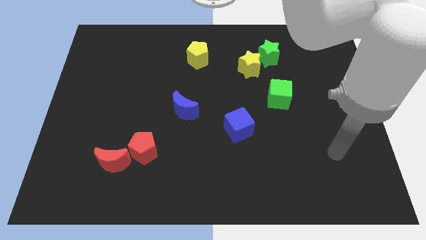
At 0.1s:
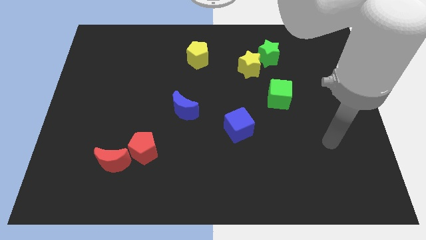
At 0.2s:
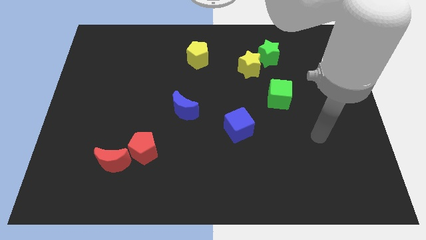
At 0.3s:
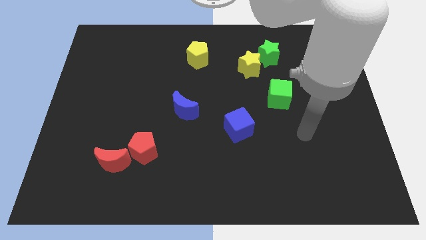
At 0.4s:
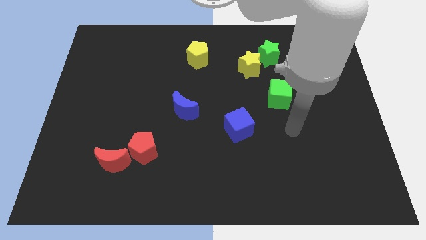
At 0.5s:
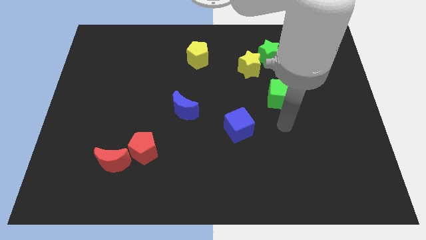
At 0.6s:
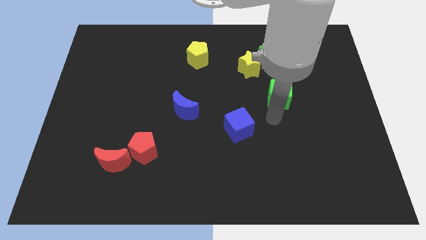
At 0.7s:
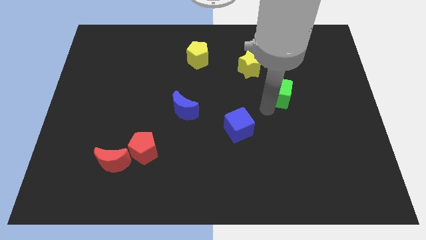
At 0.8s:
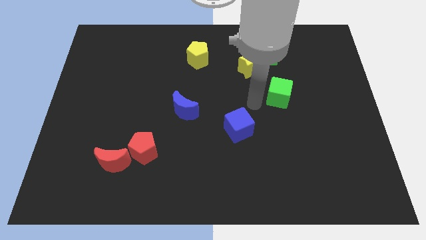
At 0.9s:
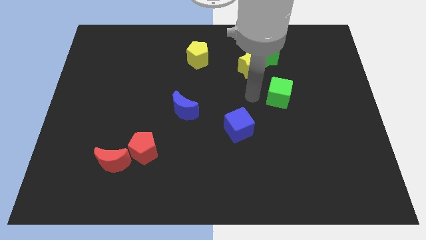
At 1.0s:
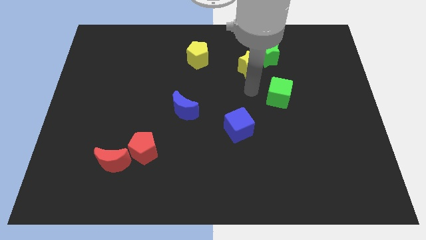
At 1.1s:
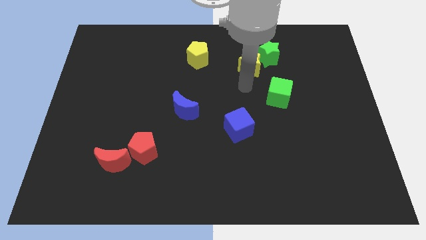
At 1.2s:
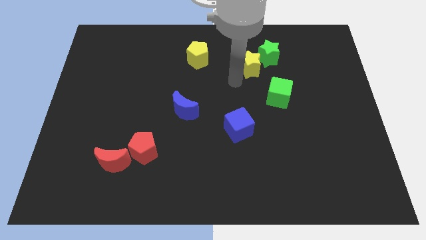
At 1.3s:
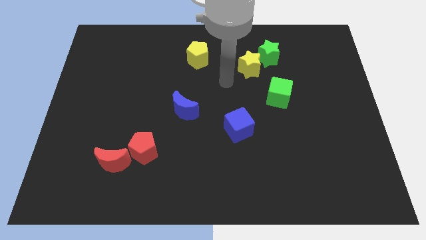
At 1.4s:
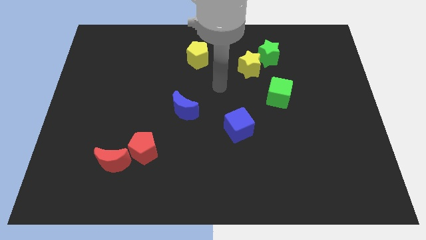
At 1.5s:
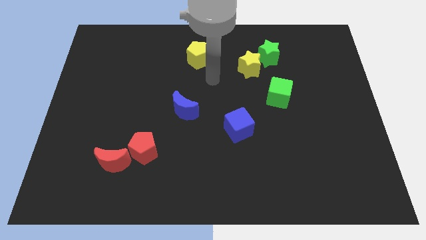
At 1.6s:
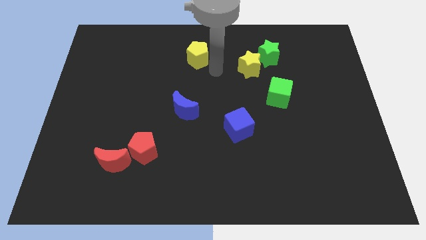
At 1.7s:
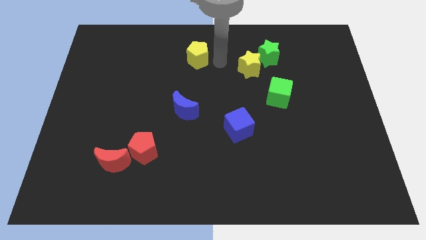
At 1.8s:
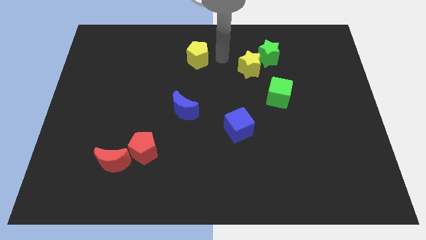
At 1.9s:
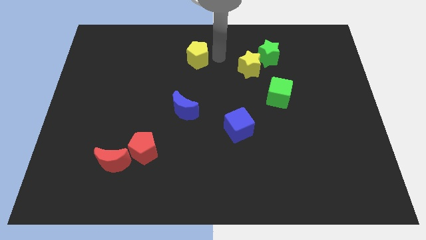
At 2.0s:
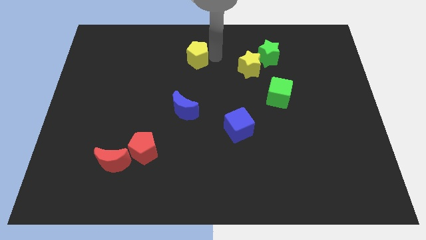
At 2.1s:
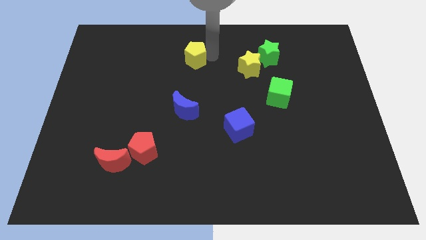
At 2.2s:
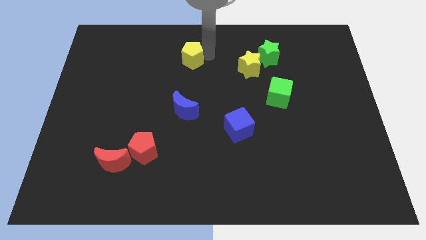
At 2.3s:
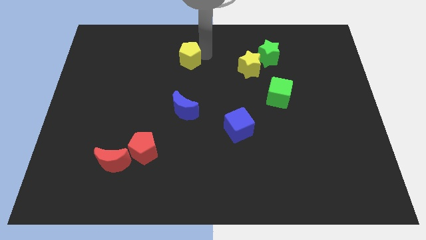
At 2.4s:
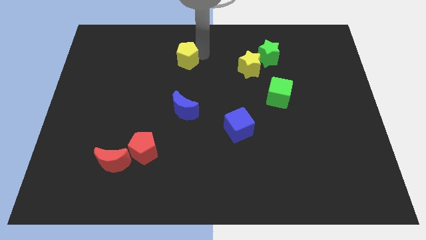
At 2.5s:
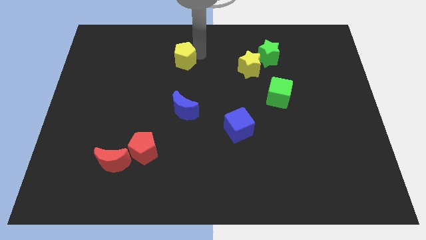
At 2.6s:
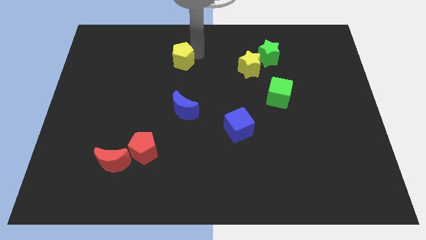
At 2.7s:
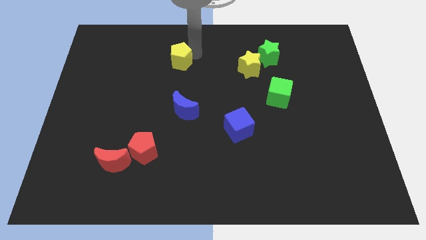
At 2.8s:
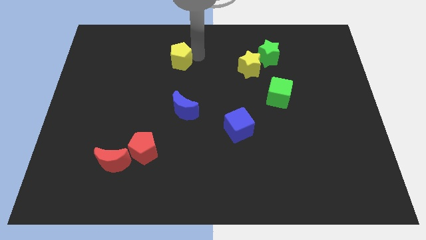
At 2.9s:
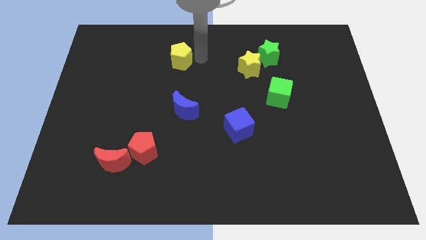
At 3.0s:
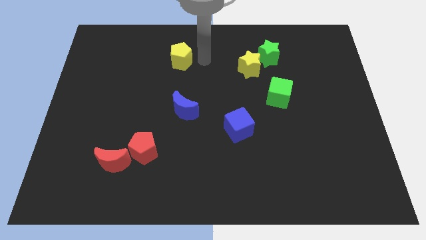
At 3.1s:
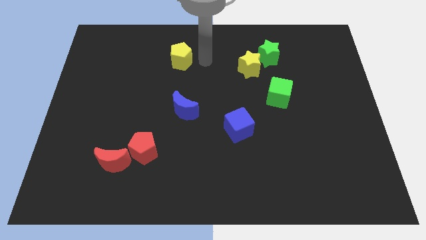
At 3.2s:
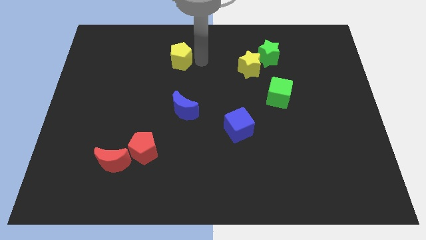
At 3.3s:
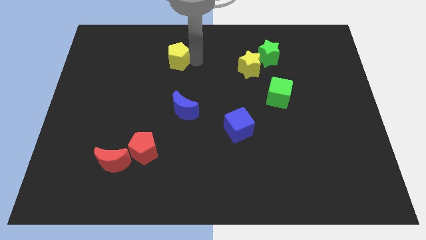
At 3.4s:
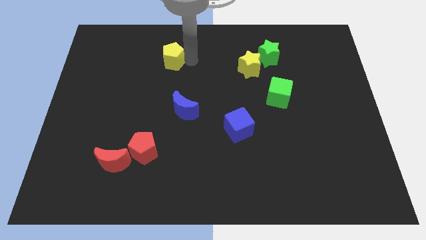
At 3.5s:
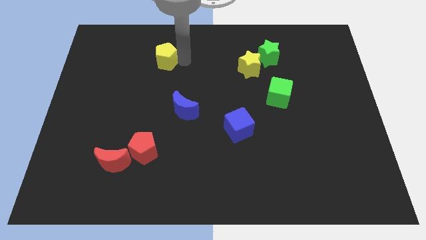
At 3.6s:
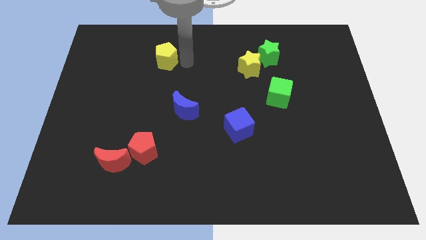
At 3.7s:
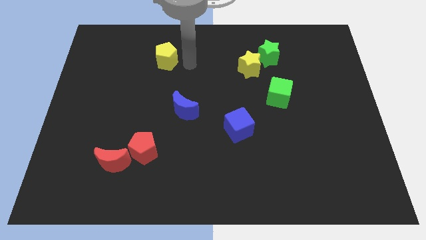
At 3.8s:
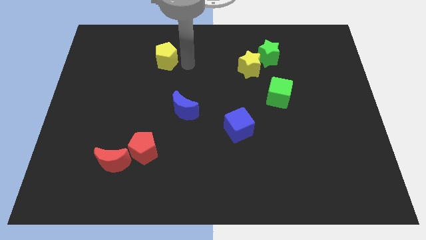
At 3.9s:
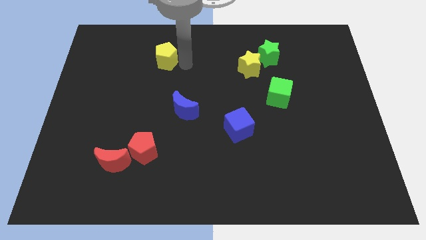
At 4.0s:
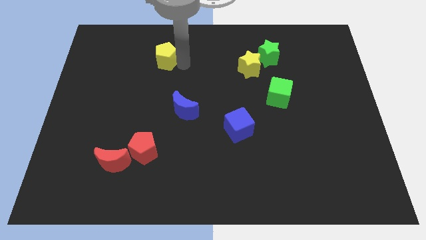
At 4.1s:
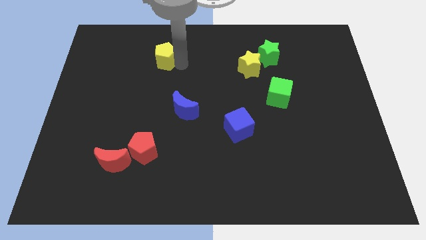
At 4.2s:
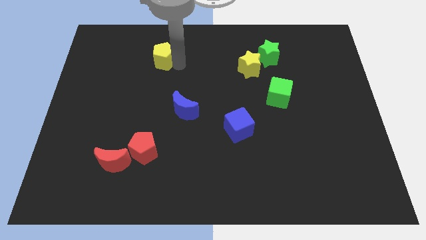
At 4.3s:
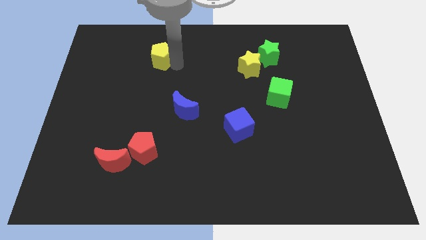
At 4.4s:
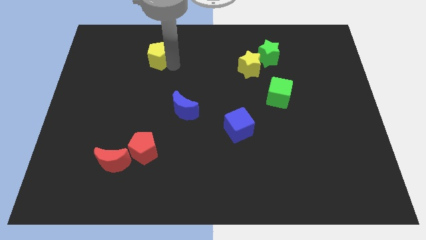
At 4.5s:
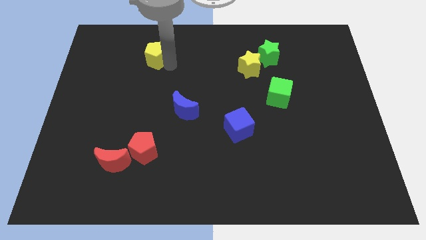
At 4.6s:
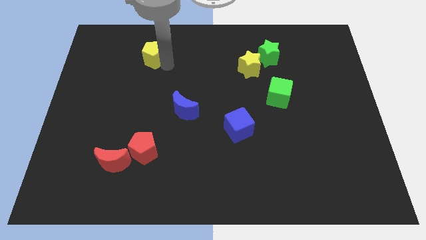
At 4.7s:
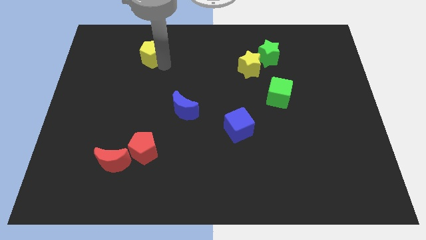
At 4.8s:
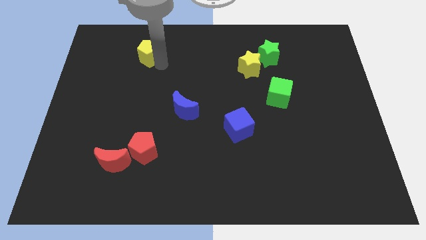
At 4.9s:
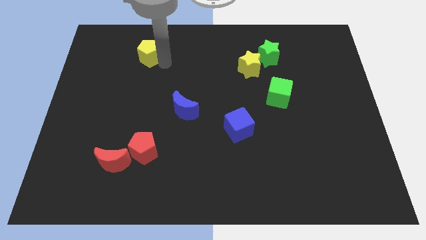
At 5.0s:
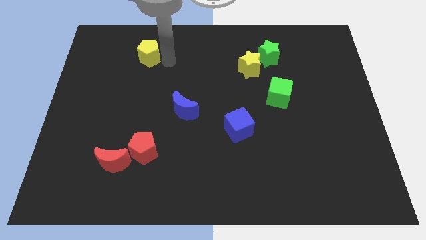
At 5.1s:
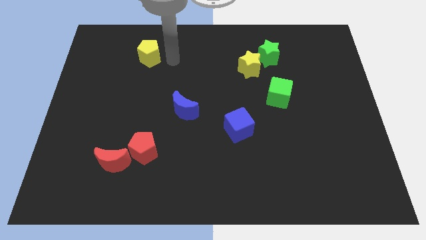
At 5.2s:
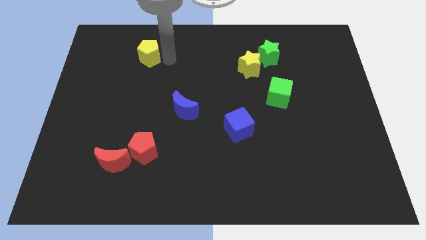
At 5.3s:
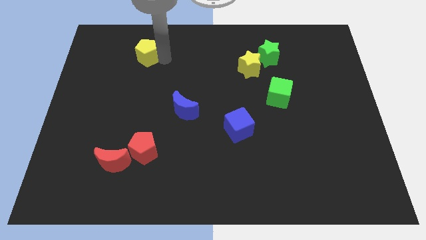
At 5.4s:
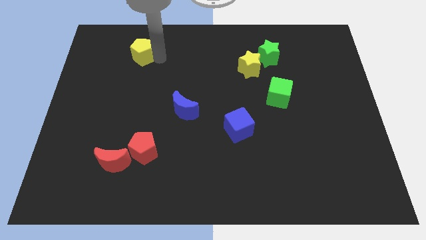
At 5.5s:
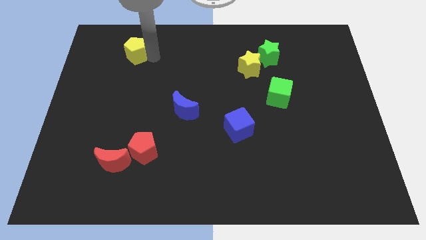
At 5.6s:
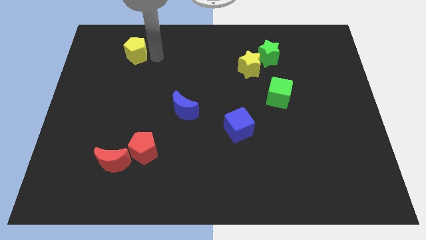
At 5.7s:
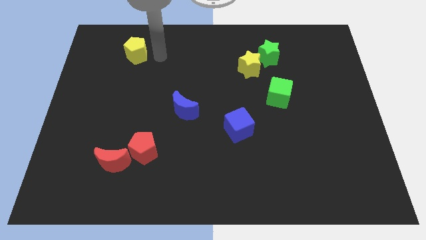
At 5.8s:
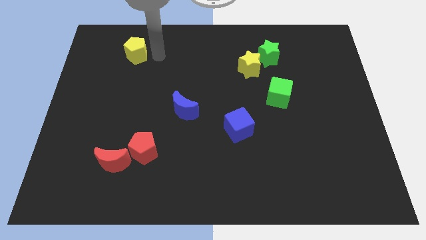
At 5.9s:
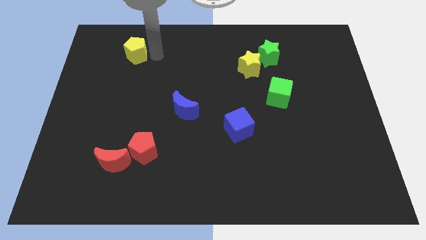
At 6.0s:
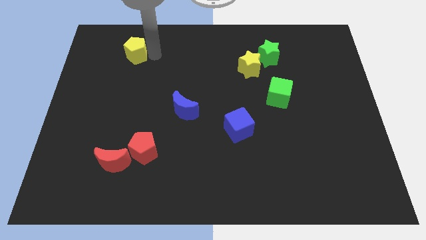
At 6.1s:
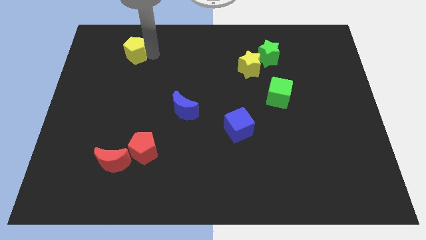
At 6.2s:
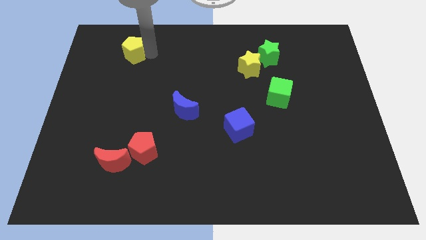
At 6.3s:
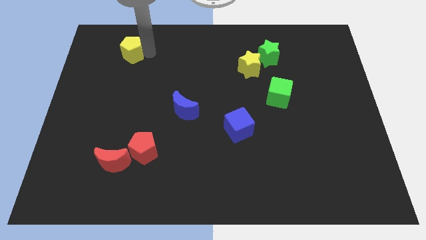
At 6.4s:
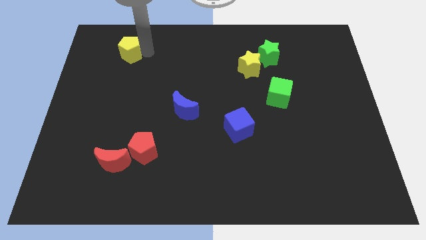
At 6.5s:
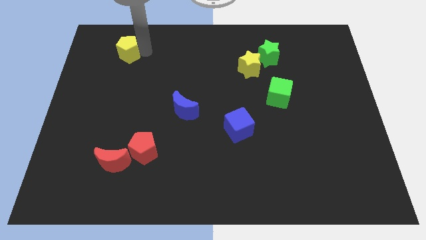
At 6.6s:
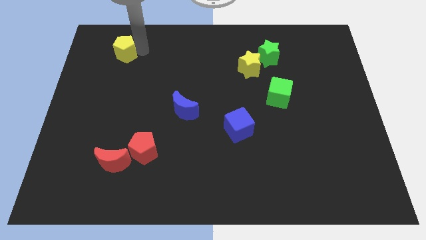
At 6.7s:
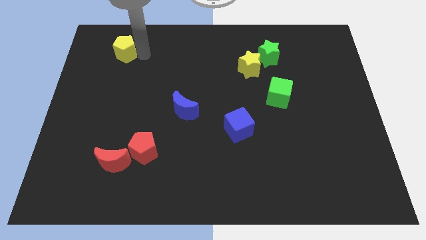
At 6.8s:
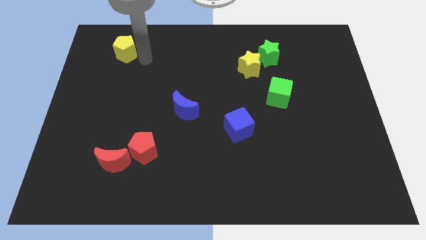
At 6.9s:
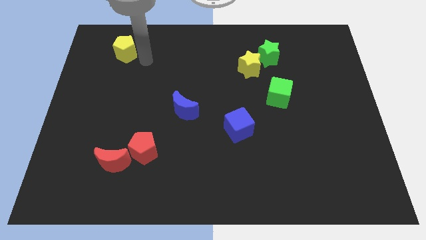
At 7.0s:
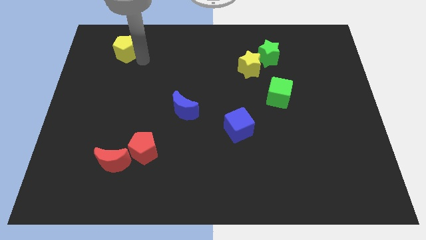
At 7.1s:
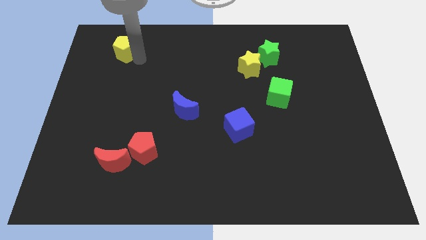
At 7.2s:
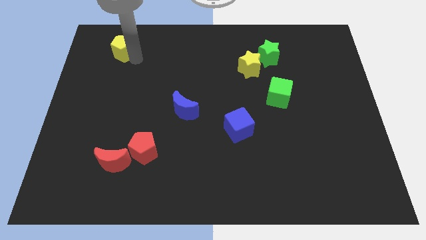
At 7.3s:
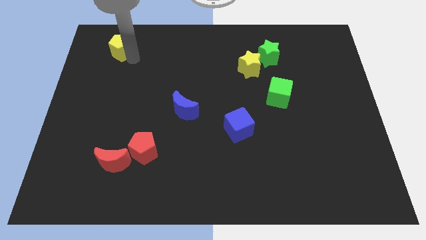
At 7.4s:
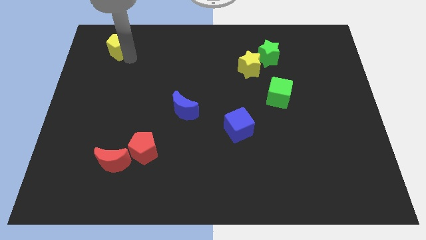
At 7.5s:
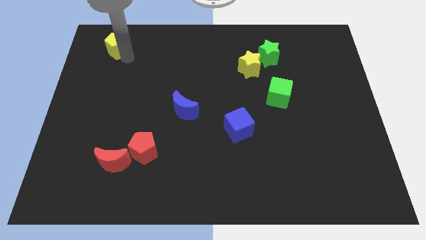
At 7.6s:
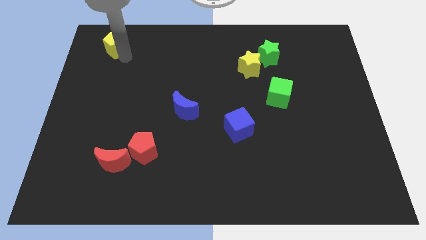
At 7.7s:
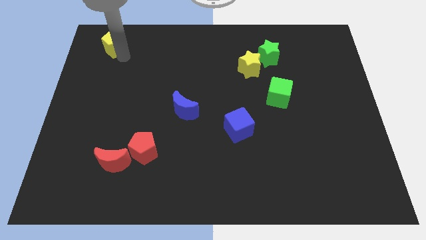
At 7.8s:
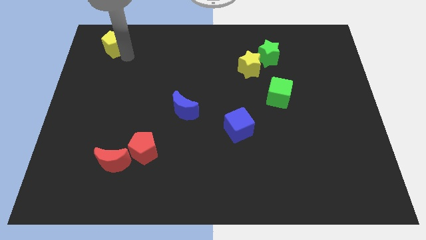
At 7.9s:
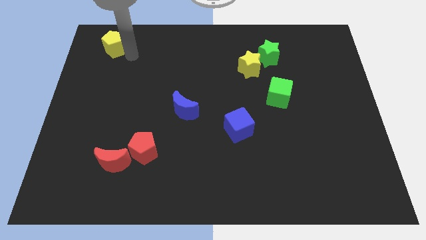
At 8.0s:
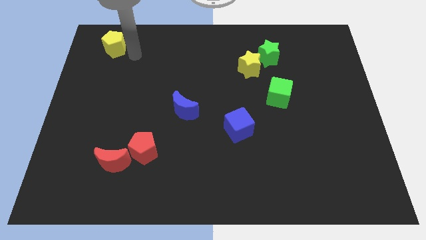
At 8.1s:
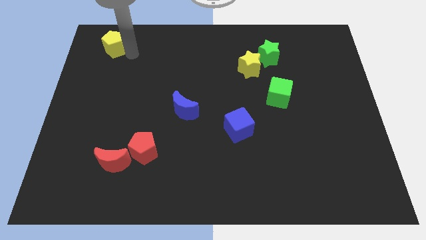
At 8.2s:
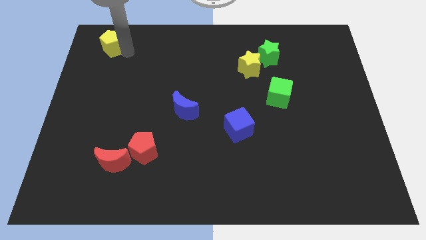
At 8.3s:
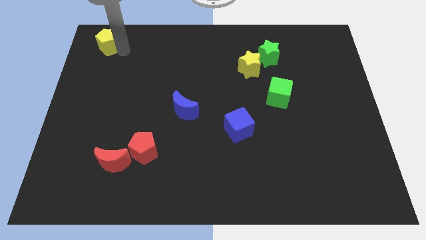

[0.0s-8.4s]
move the yellow pentagon to the top left corner
